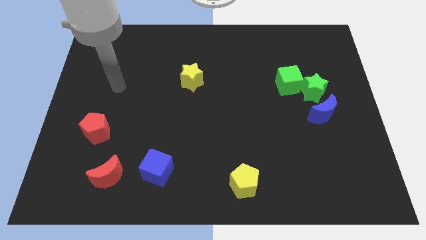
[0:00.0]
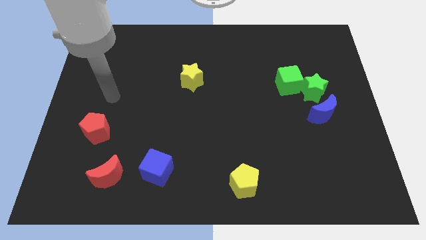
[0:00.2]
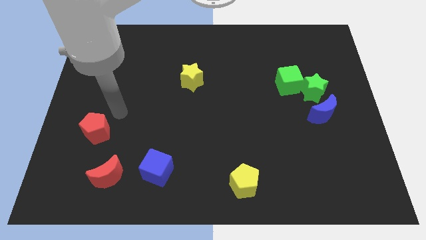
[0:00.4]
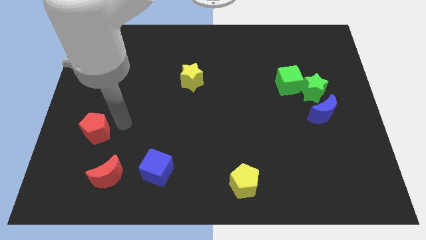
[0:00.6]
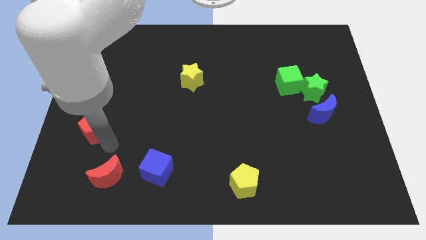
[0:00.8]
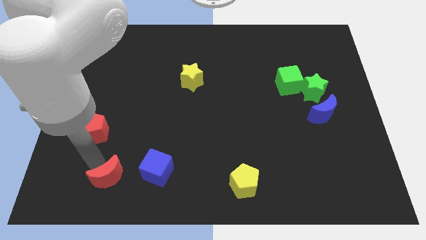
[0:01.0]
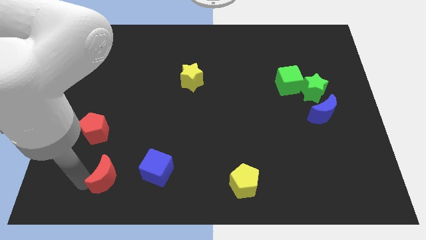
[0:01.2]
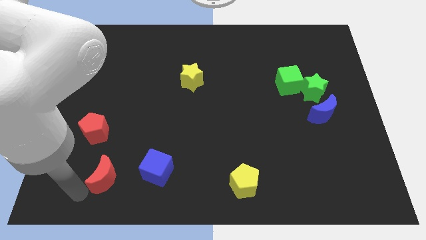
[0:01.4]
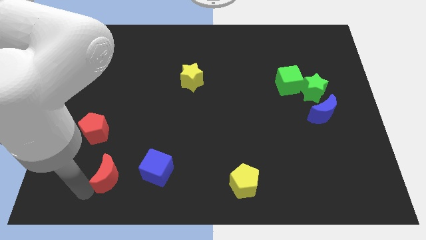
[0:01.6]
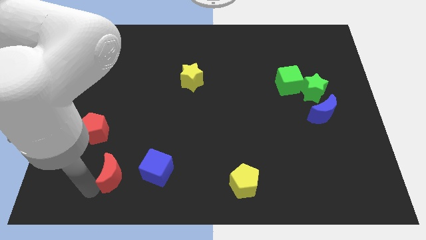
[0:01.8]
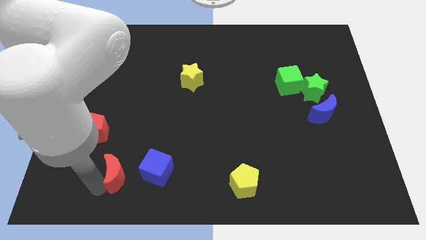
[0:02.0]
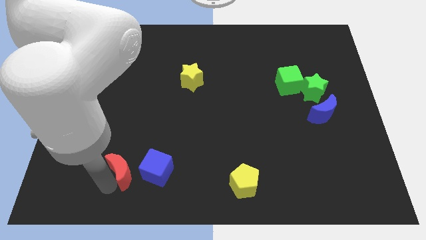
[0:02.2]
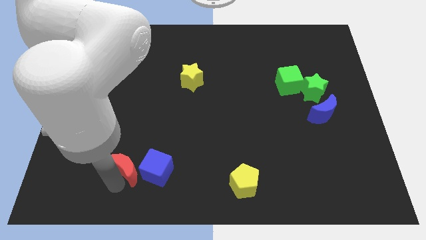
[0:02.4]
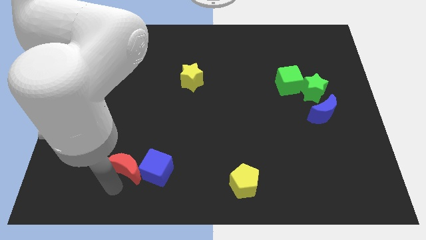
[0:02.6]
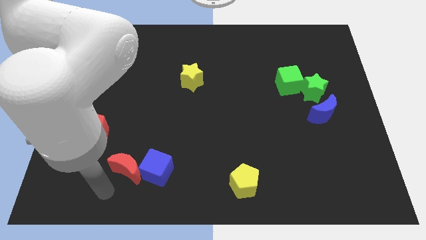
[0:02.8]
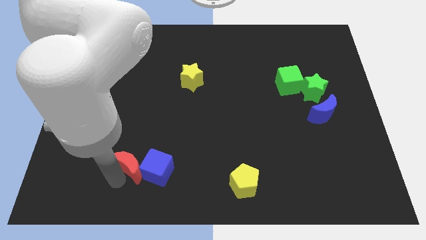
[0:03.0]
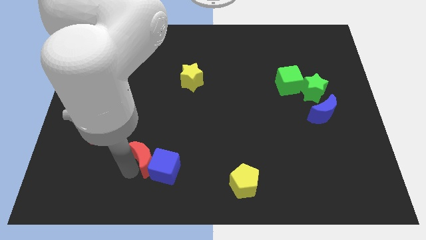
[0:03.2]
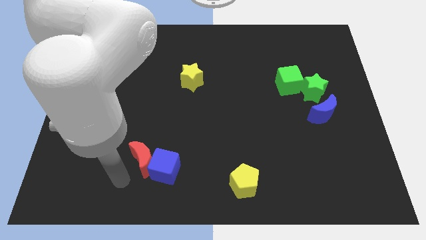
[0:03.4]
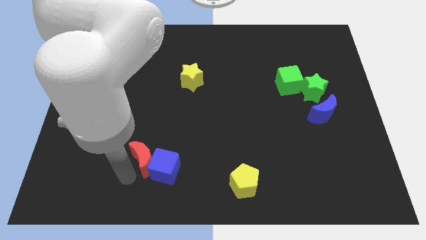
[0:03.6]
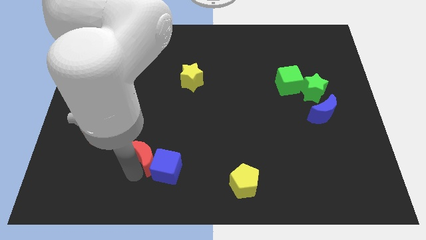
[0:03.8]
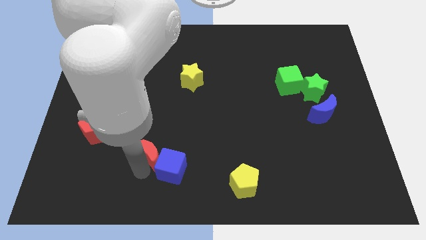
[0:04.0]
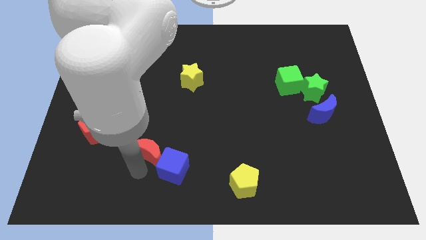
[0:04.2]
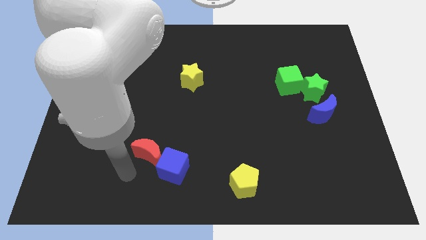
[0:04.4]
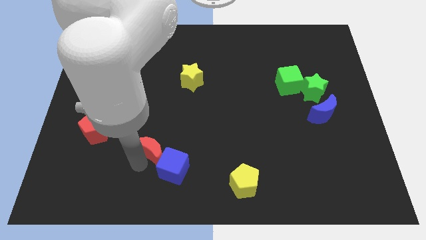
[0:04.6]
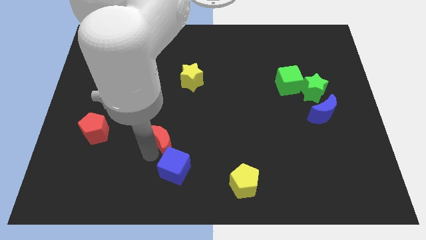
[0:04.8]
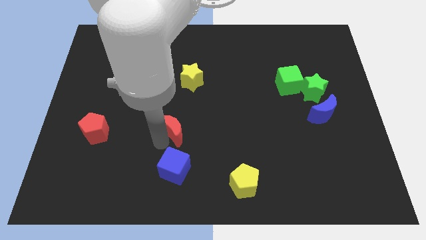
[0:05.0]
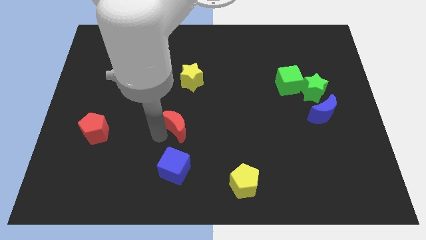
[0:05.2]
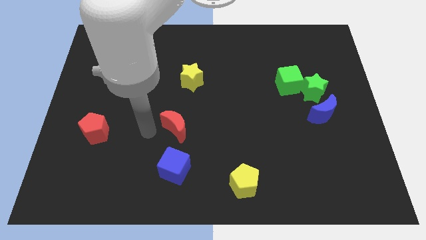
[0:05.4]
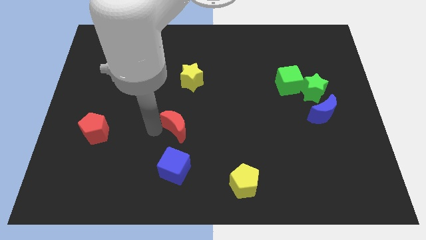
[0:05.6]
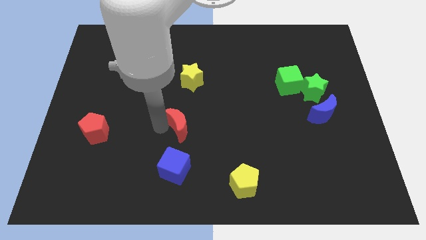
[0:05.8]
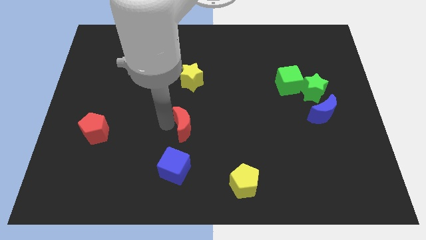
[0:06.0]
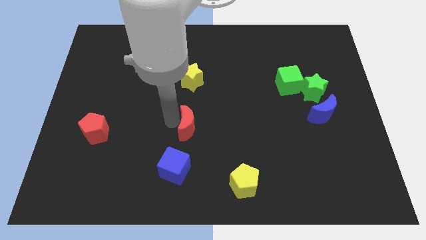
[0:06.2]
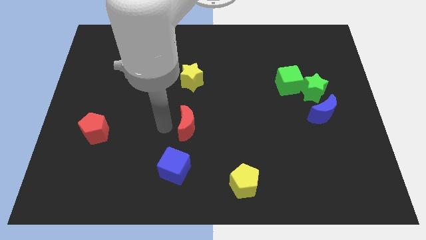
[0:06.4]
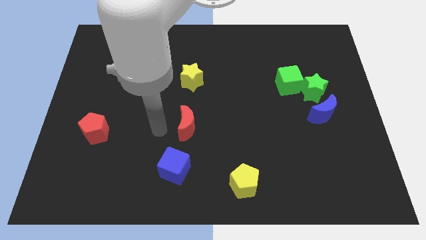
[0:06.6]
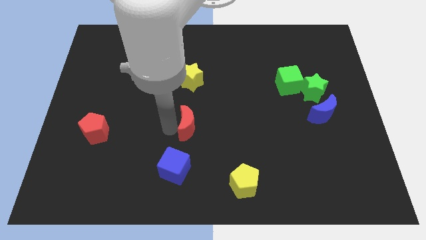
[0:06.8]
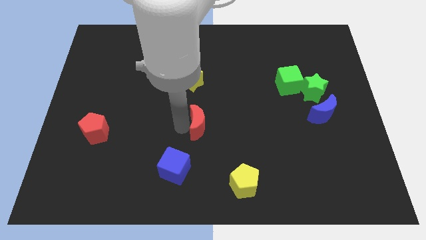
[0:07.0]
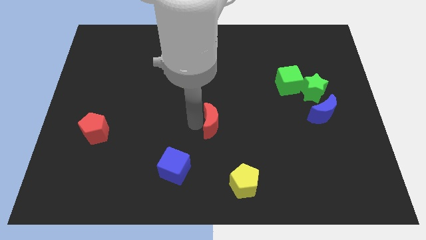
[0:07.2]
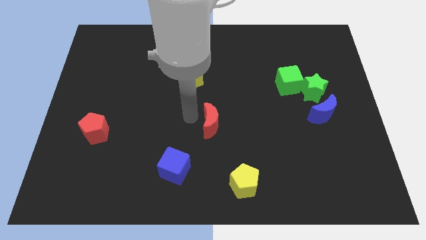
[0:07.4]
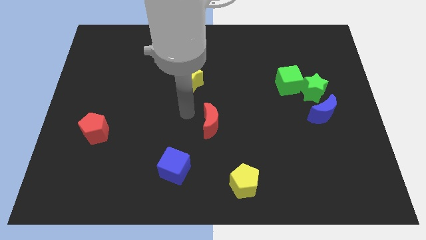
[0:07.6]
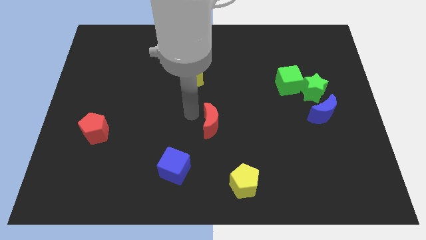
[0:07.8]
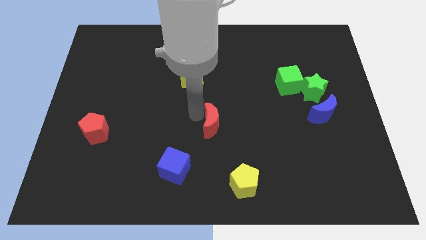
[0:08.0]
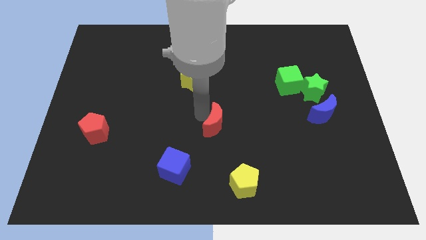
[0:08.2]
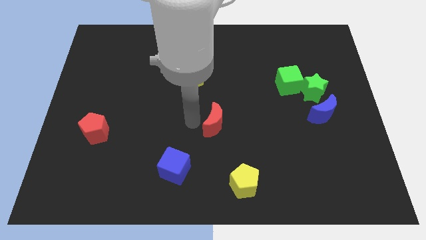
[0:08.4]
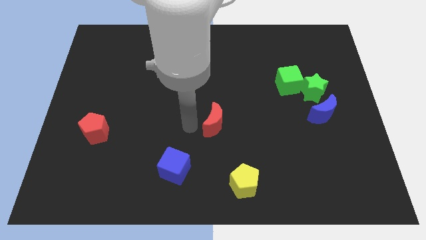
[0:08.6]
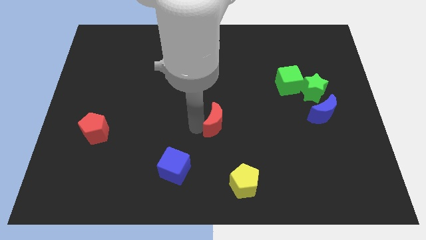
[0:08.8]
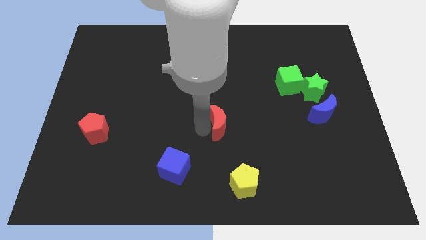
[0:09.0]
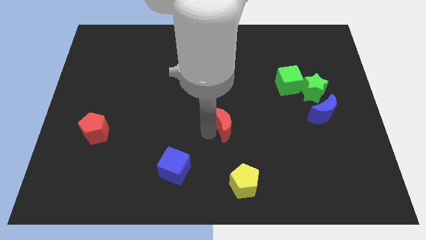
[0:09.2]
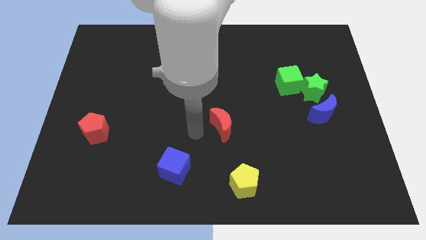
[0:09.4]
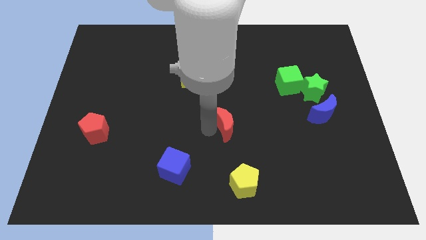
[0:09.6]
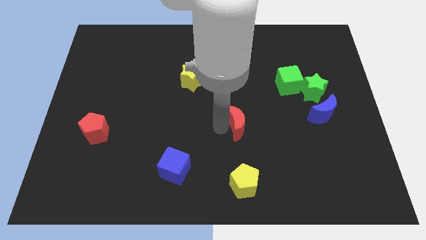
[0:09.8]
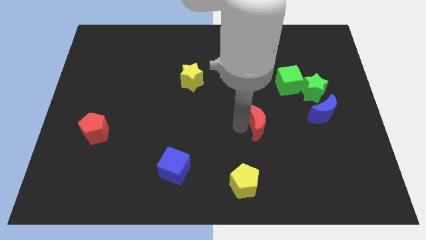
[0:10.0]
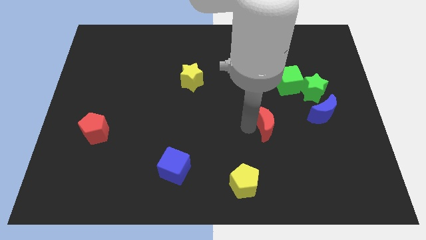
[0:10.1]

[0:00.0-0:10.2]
slide the red moon left of the blue moon

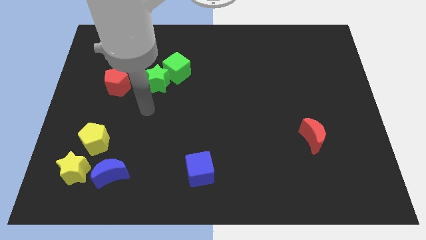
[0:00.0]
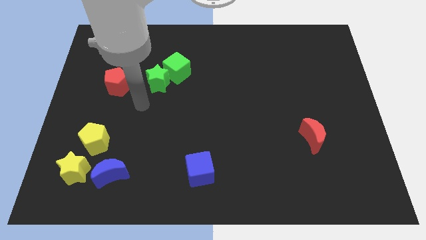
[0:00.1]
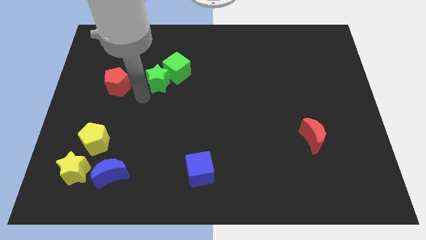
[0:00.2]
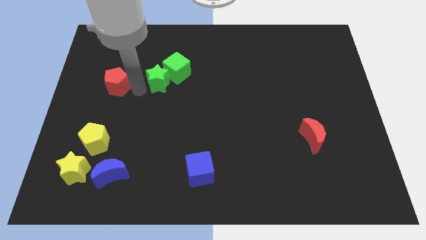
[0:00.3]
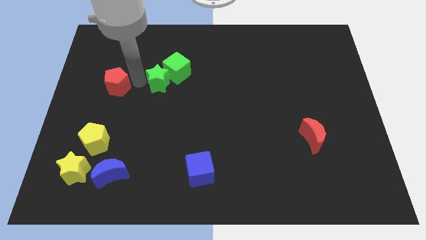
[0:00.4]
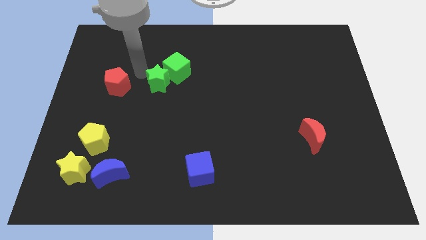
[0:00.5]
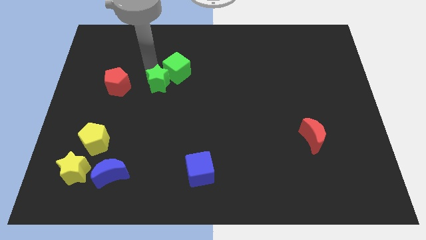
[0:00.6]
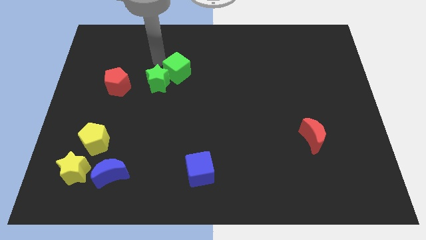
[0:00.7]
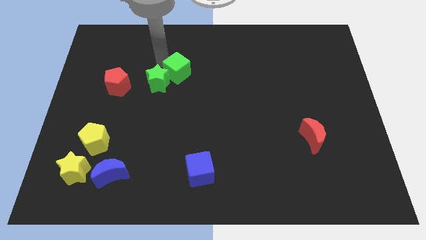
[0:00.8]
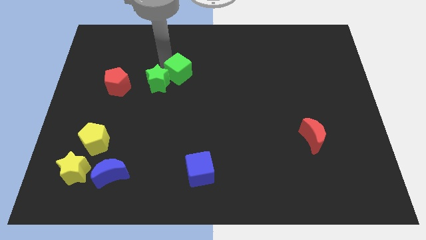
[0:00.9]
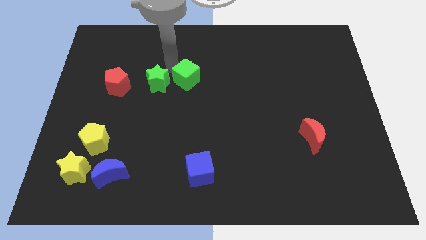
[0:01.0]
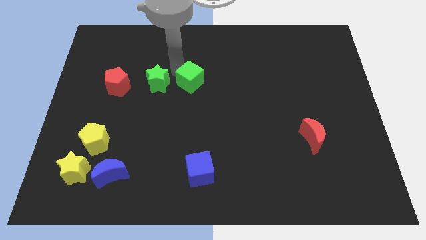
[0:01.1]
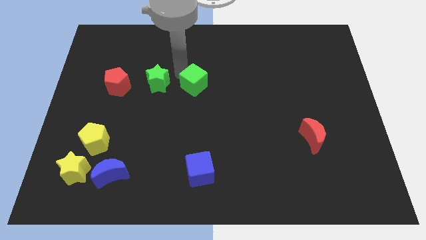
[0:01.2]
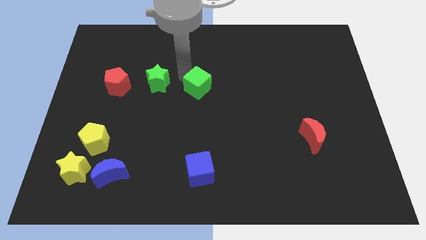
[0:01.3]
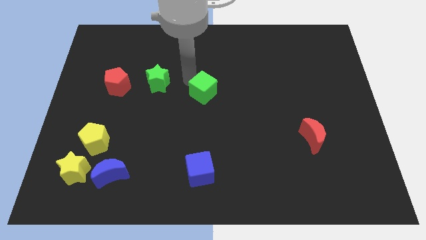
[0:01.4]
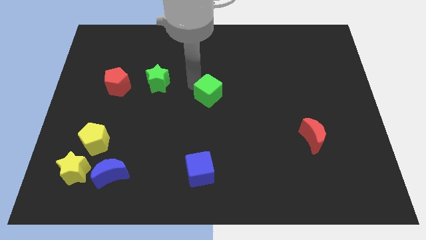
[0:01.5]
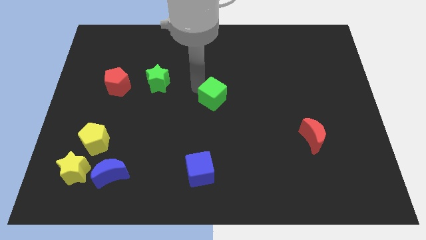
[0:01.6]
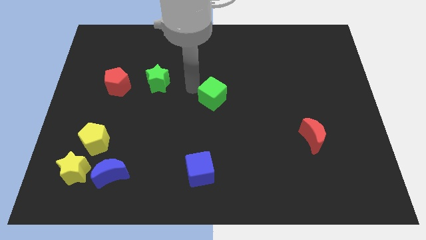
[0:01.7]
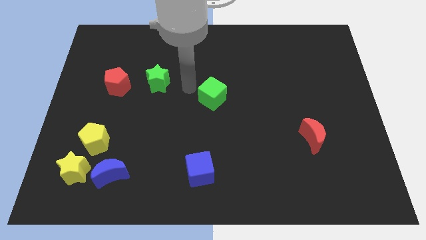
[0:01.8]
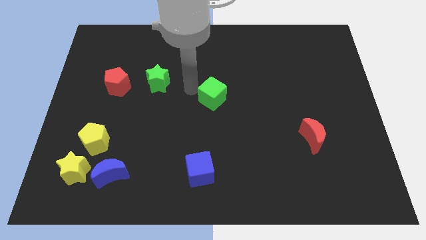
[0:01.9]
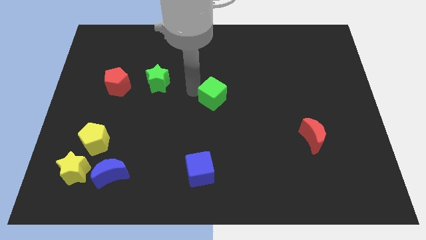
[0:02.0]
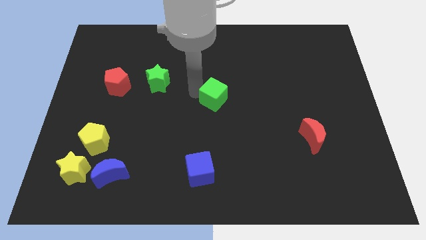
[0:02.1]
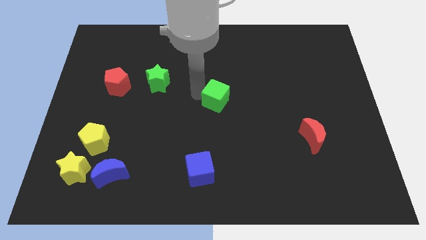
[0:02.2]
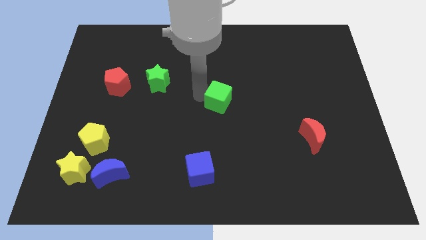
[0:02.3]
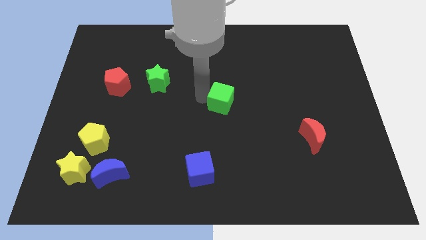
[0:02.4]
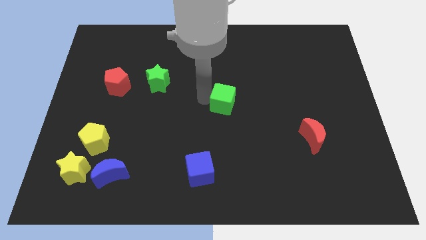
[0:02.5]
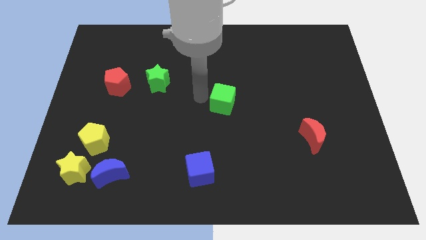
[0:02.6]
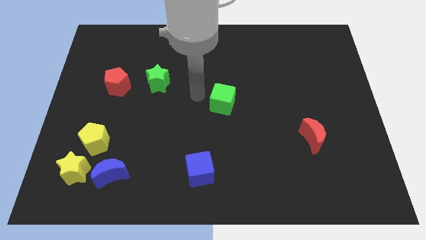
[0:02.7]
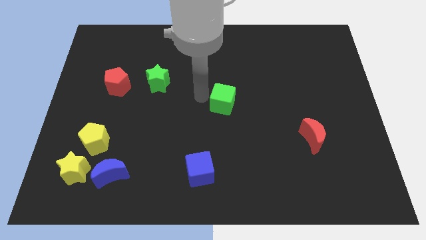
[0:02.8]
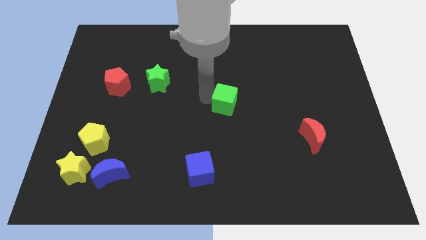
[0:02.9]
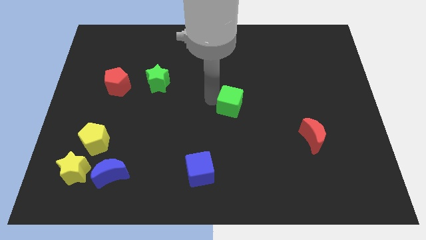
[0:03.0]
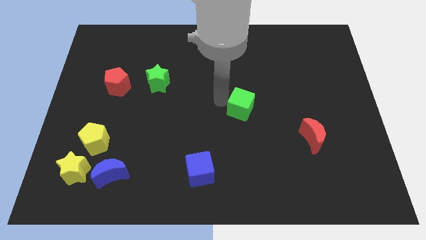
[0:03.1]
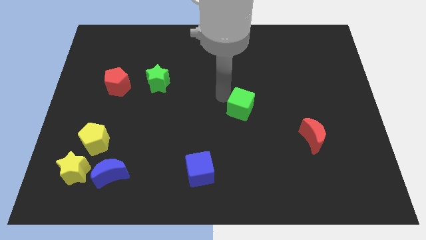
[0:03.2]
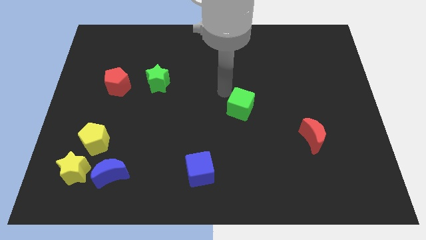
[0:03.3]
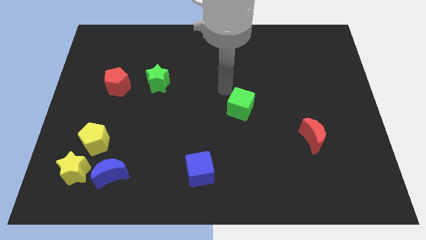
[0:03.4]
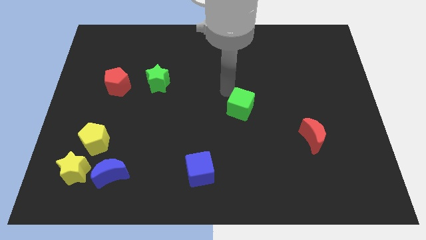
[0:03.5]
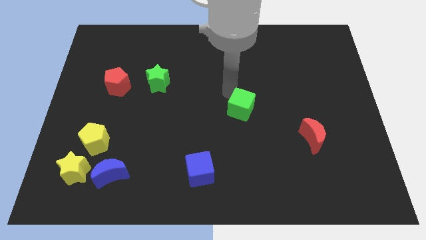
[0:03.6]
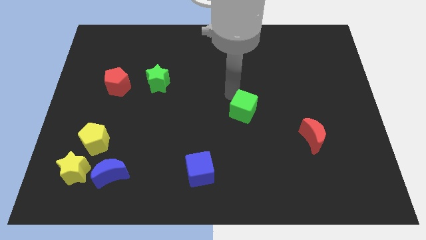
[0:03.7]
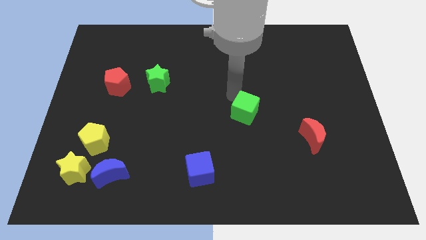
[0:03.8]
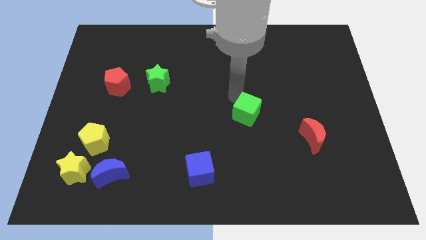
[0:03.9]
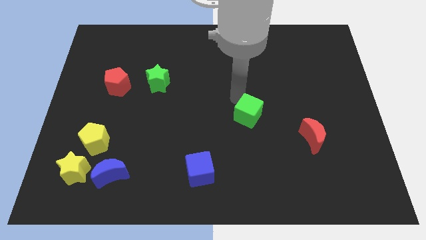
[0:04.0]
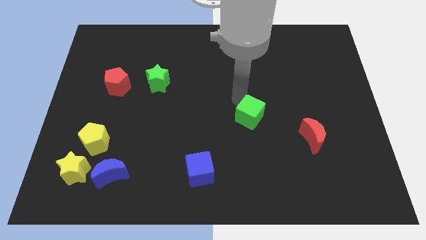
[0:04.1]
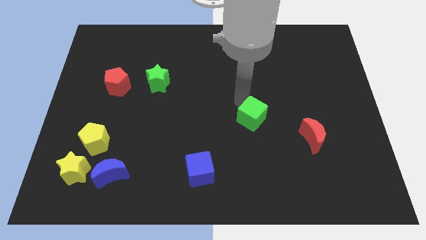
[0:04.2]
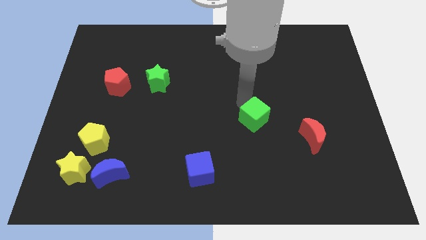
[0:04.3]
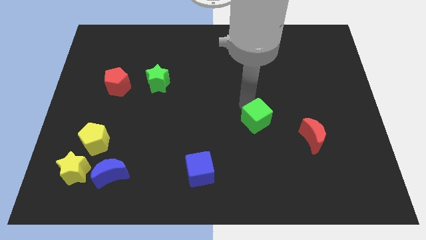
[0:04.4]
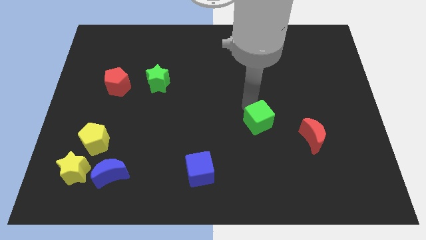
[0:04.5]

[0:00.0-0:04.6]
push the green cube left of the red moon
